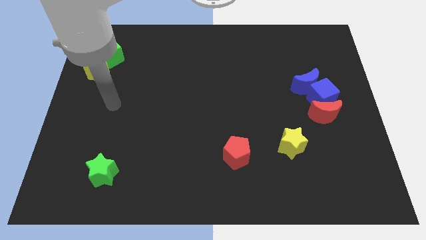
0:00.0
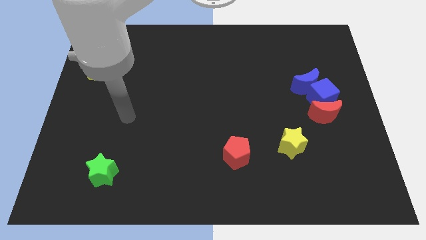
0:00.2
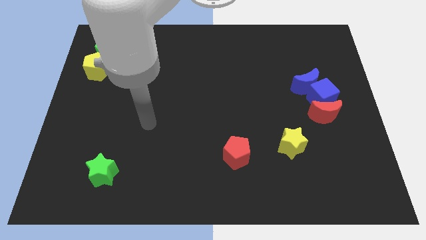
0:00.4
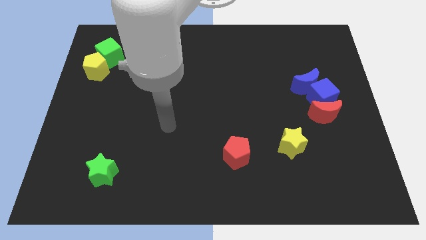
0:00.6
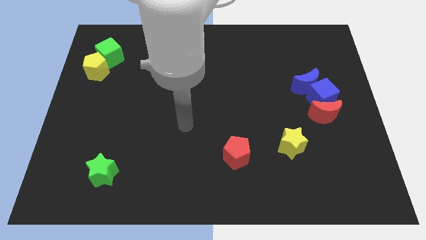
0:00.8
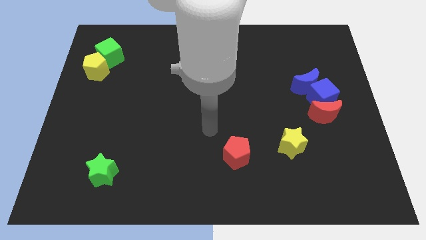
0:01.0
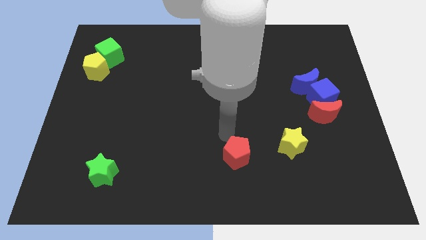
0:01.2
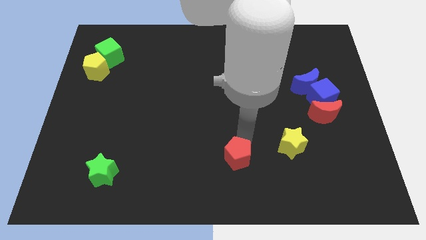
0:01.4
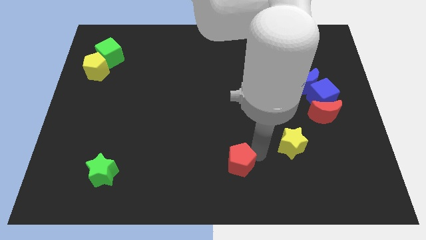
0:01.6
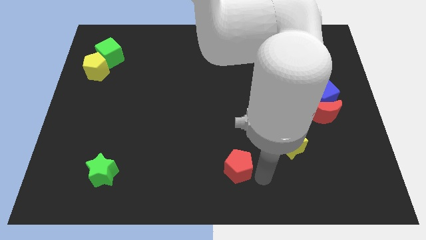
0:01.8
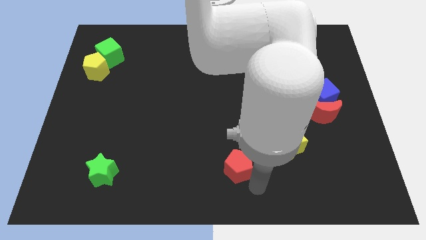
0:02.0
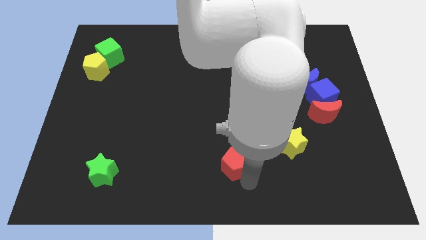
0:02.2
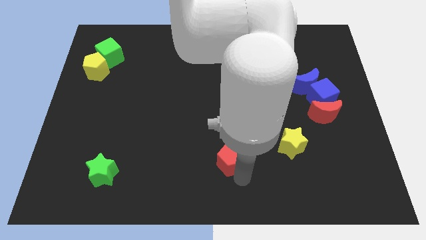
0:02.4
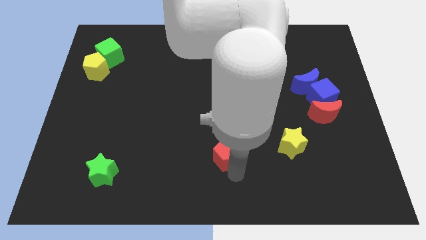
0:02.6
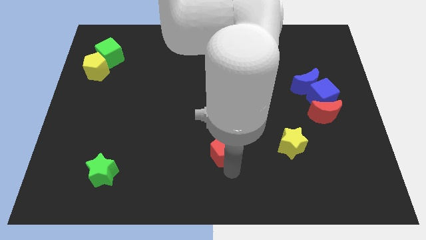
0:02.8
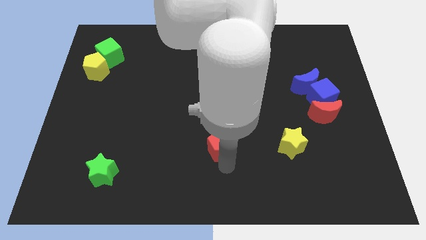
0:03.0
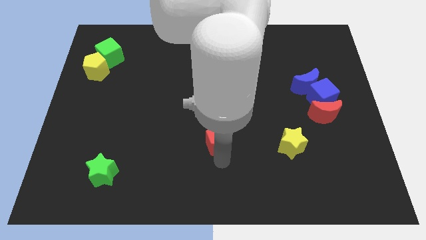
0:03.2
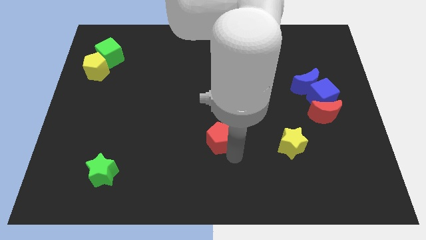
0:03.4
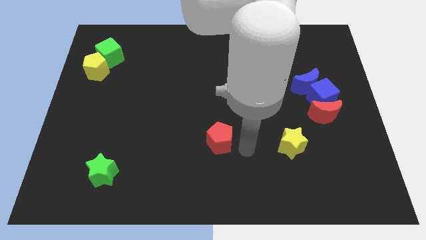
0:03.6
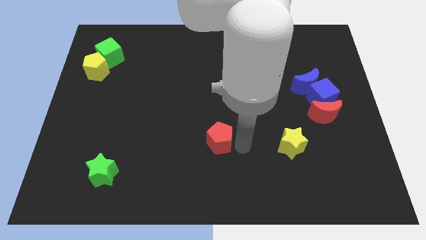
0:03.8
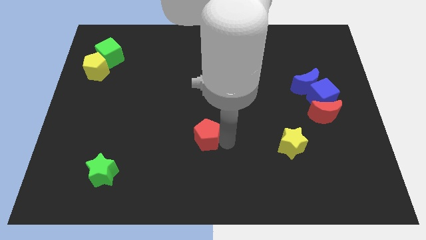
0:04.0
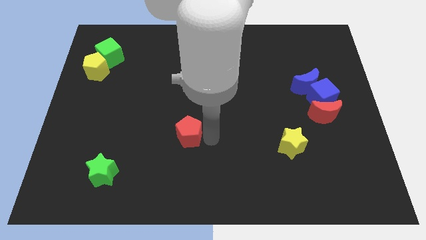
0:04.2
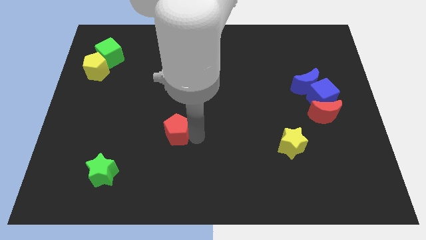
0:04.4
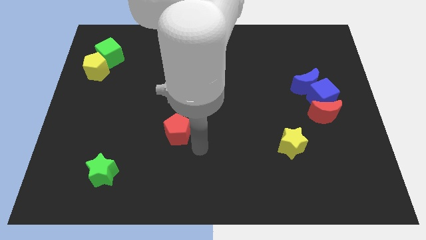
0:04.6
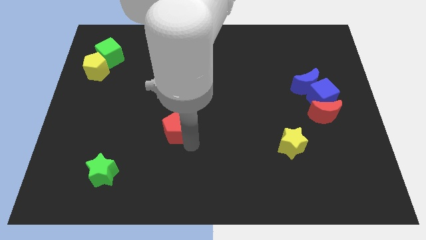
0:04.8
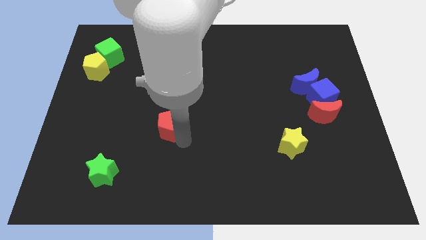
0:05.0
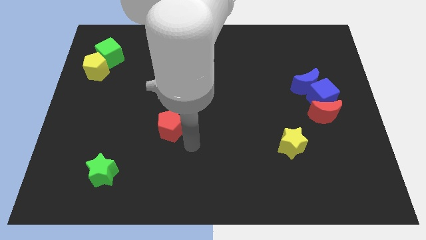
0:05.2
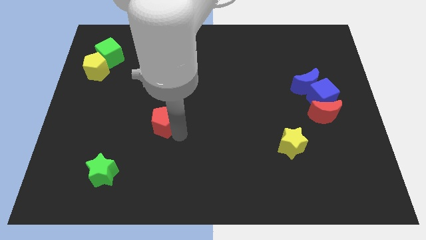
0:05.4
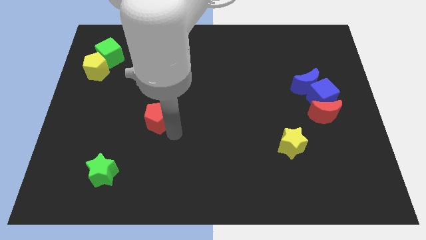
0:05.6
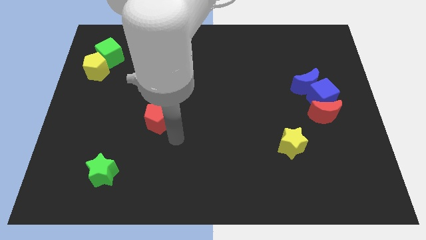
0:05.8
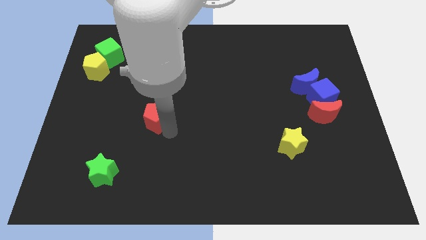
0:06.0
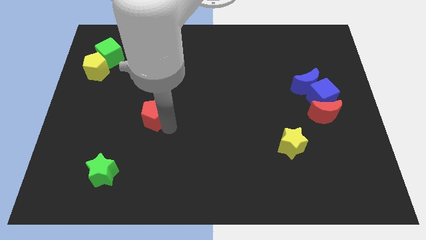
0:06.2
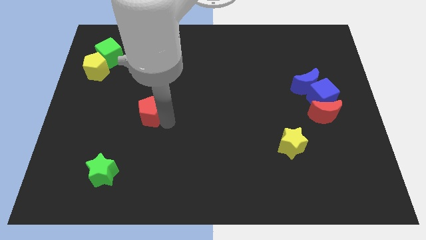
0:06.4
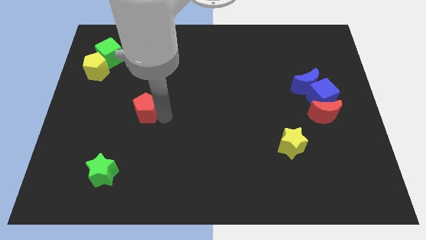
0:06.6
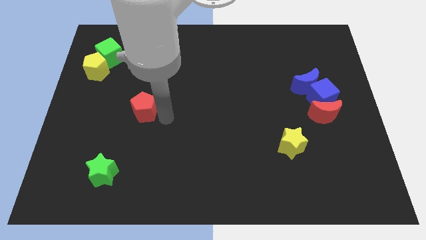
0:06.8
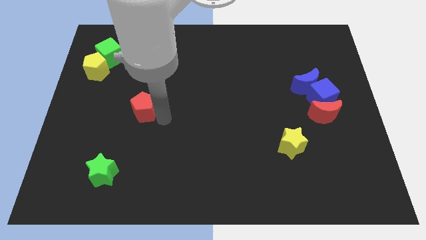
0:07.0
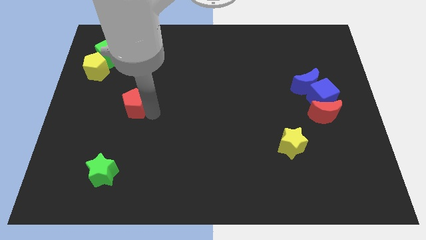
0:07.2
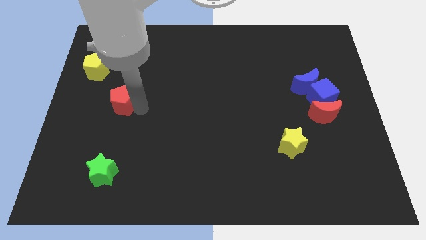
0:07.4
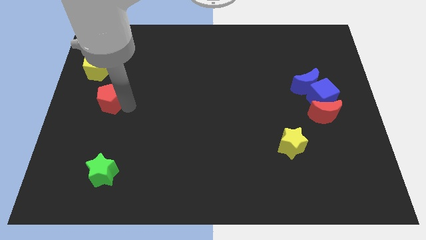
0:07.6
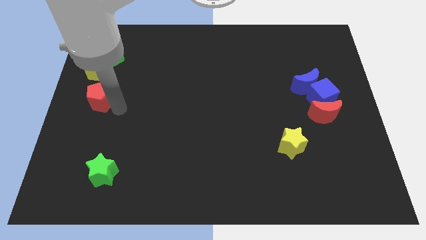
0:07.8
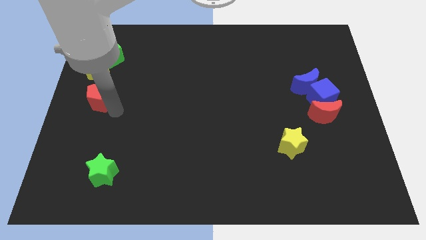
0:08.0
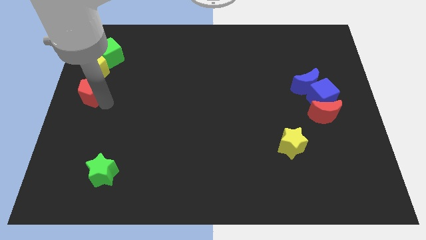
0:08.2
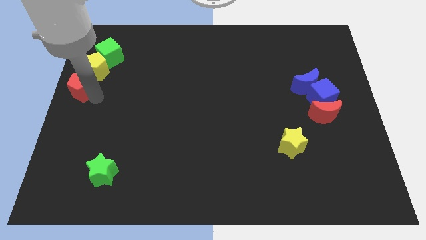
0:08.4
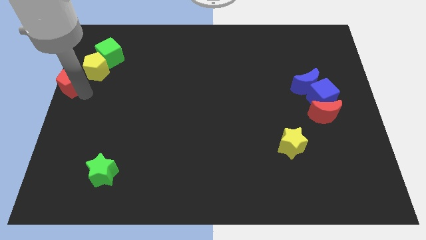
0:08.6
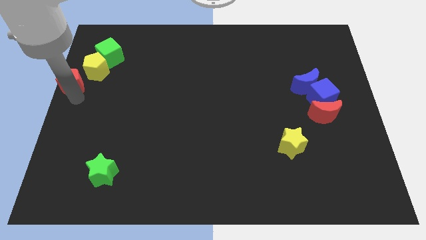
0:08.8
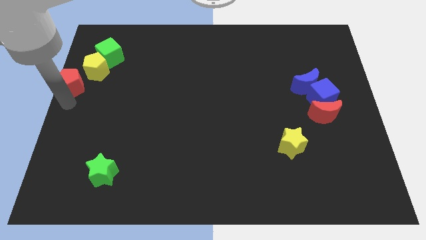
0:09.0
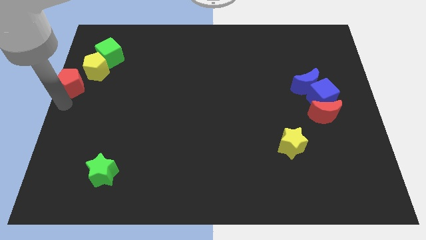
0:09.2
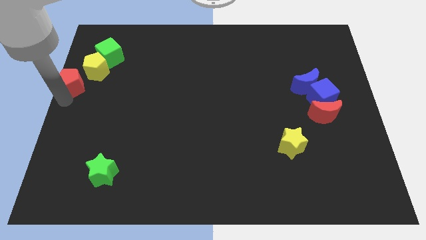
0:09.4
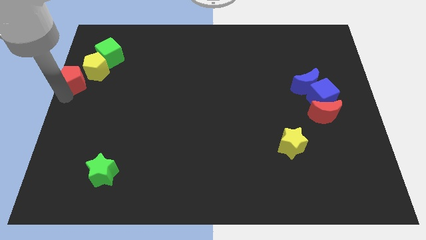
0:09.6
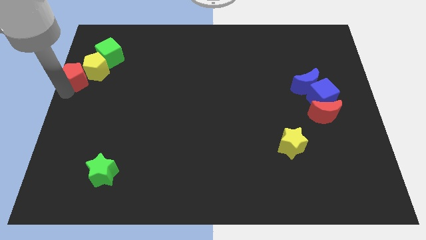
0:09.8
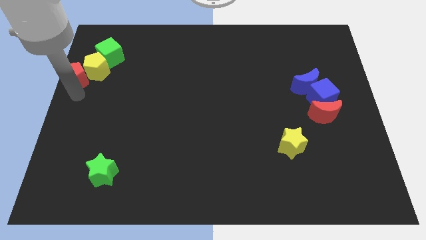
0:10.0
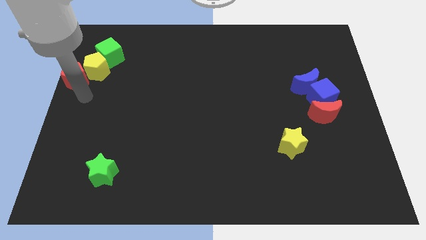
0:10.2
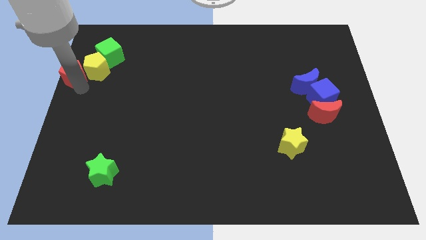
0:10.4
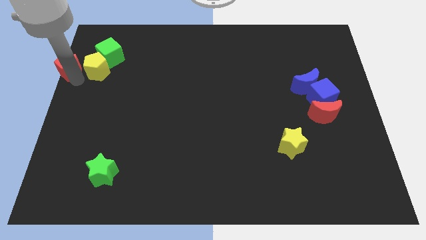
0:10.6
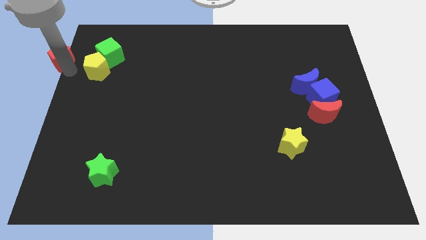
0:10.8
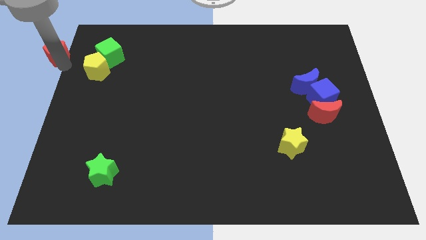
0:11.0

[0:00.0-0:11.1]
move the red pentagon to the top left of the board

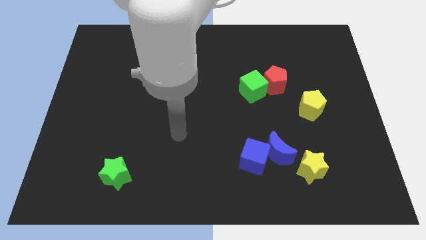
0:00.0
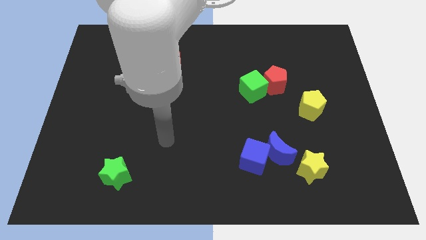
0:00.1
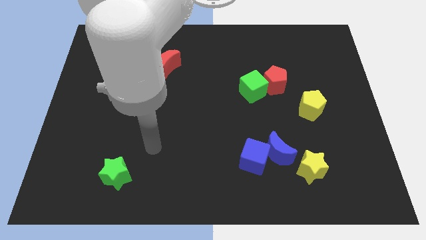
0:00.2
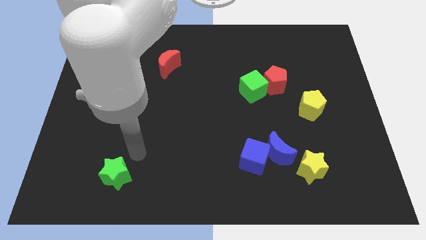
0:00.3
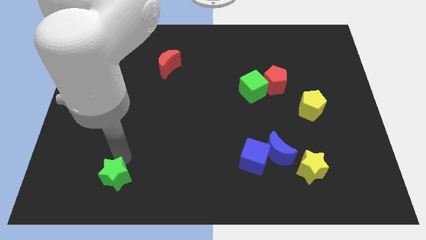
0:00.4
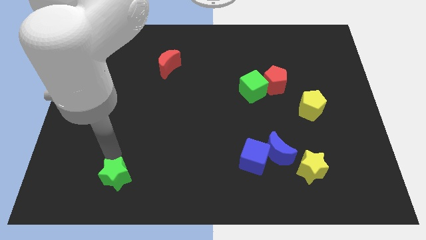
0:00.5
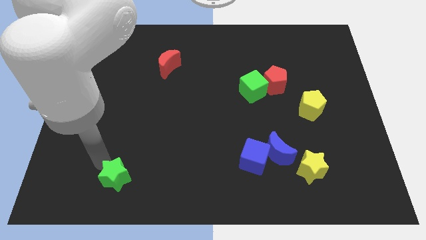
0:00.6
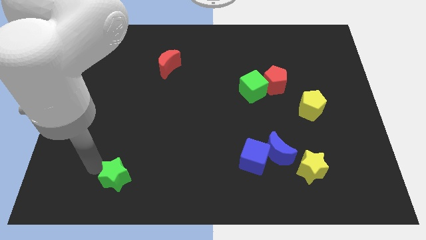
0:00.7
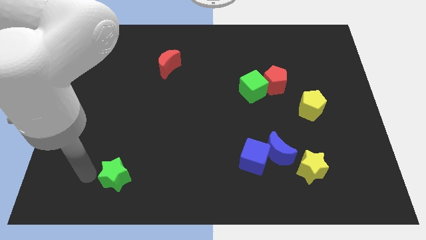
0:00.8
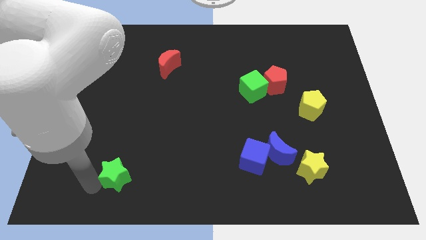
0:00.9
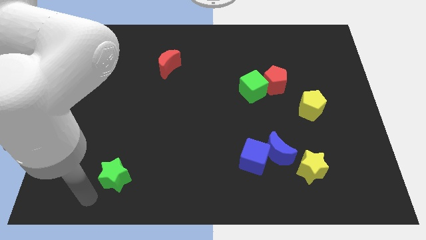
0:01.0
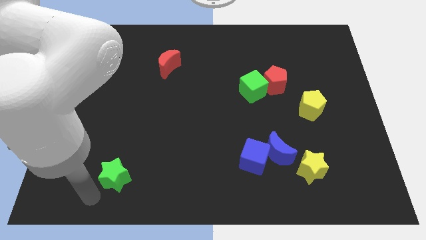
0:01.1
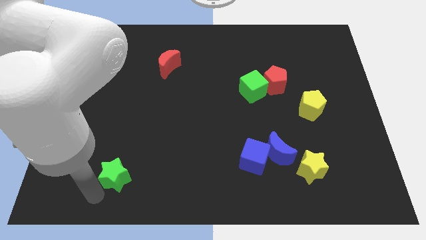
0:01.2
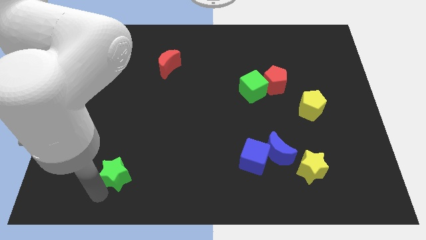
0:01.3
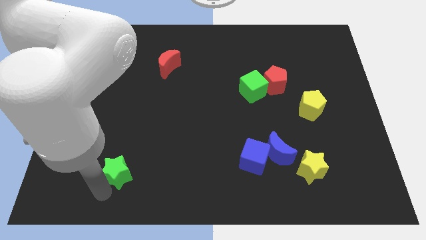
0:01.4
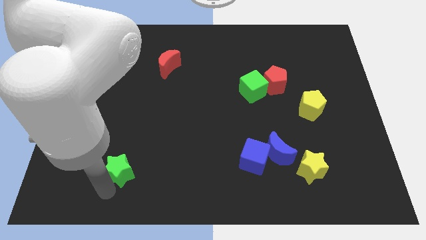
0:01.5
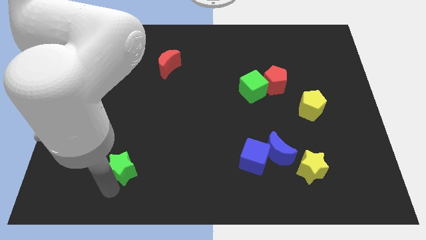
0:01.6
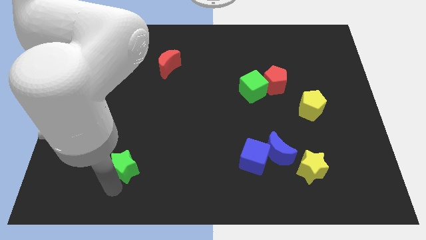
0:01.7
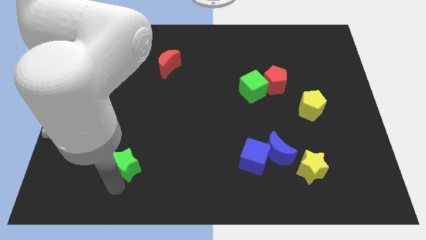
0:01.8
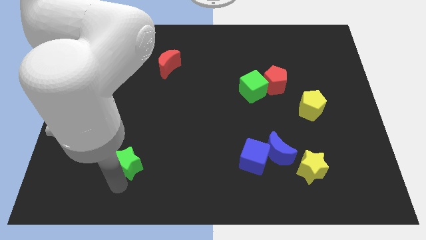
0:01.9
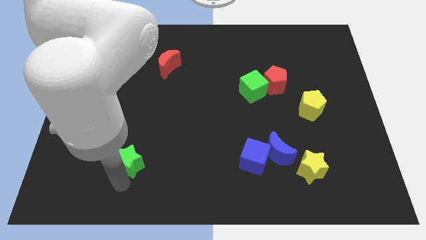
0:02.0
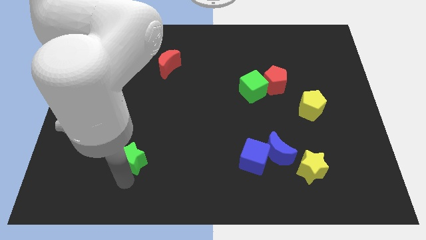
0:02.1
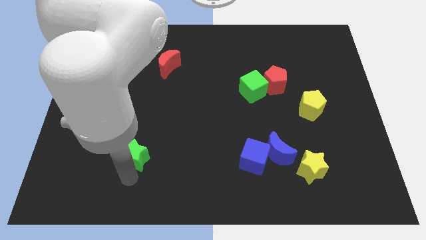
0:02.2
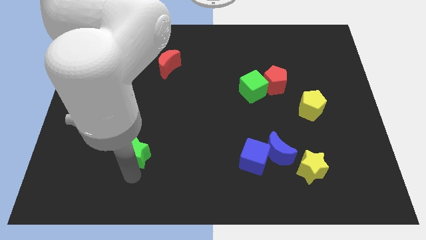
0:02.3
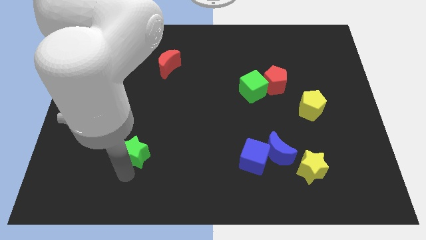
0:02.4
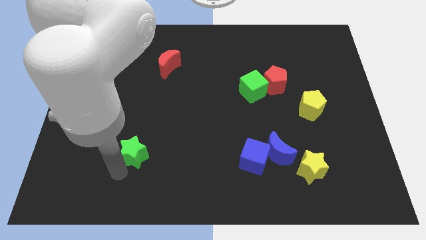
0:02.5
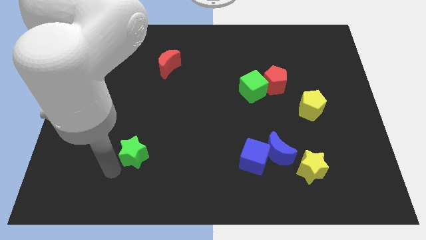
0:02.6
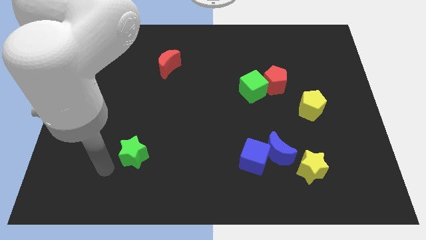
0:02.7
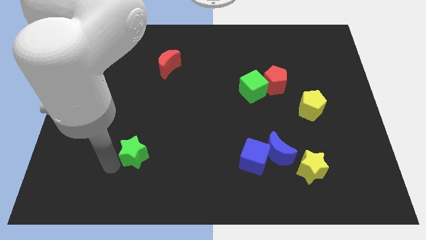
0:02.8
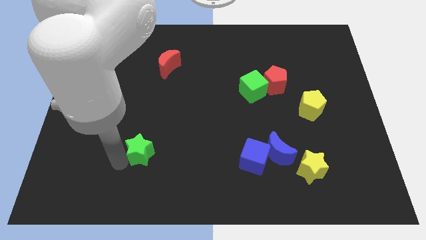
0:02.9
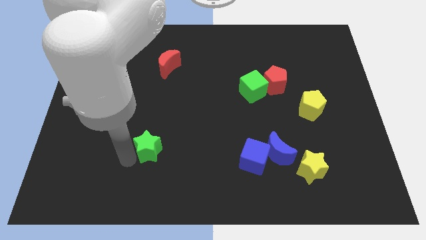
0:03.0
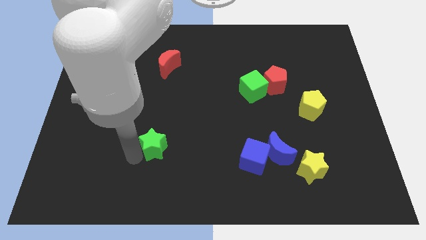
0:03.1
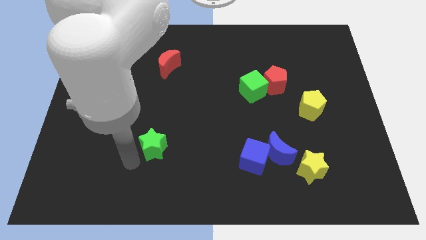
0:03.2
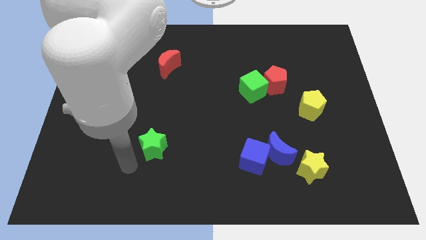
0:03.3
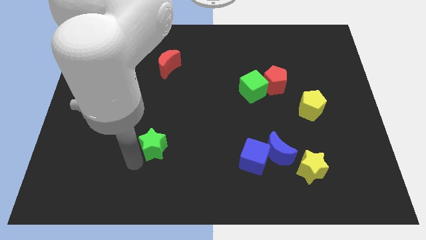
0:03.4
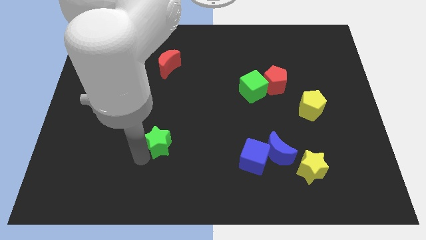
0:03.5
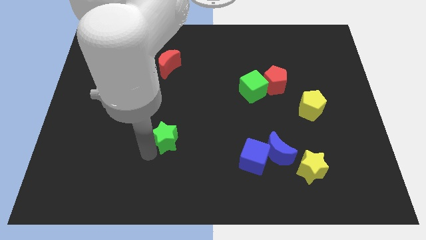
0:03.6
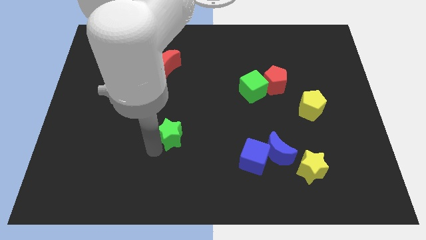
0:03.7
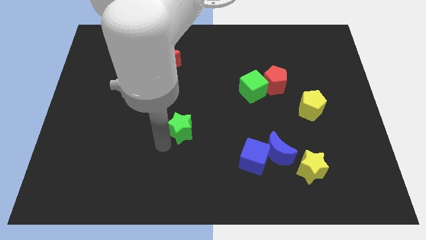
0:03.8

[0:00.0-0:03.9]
move the green star to the center of the board
